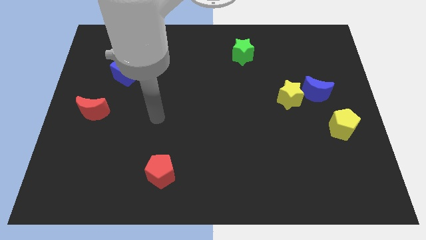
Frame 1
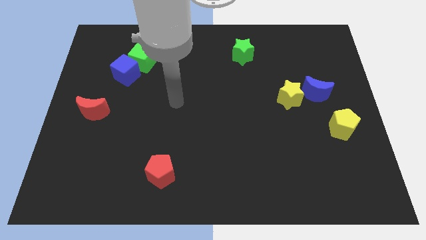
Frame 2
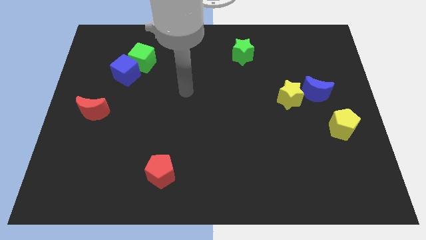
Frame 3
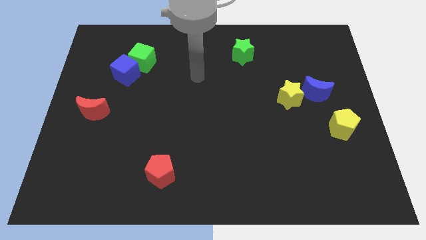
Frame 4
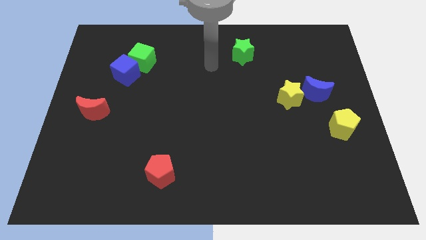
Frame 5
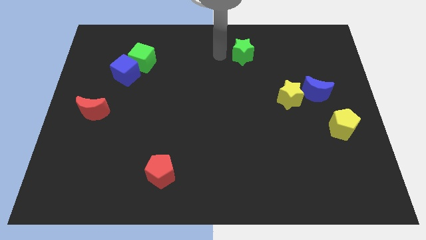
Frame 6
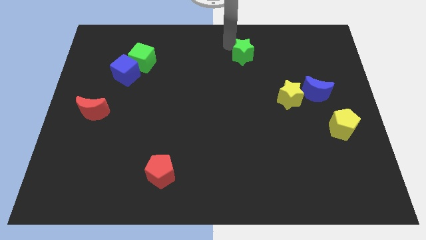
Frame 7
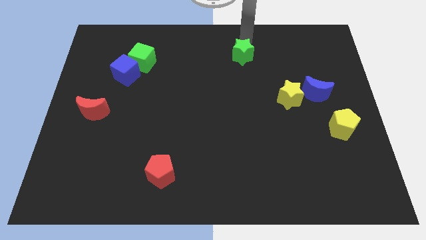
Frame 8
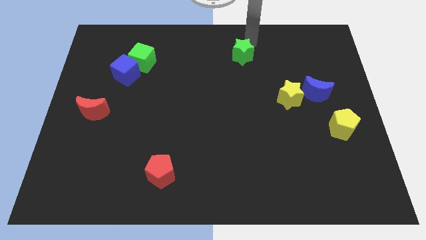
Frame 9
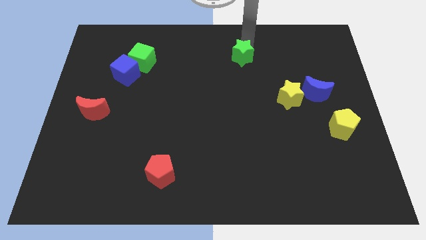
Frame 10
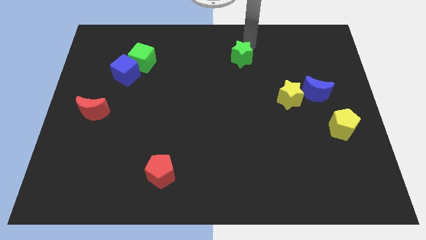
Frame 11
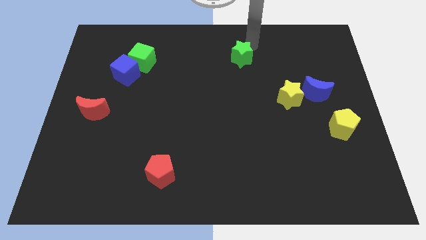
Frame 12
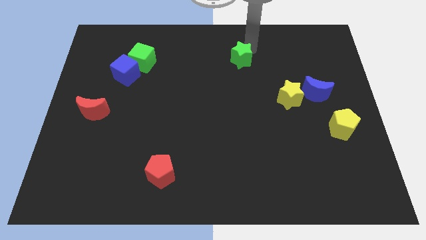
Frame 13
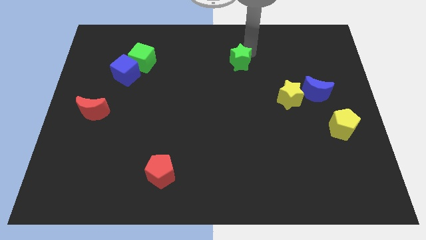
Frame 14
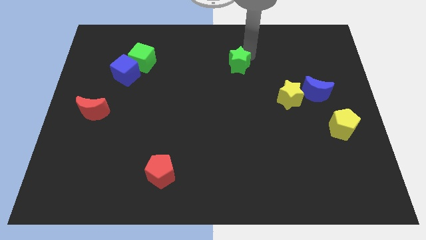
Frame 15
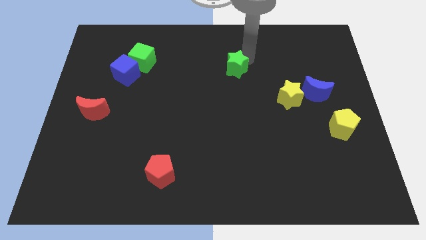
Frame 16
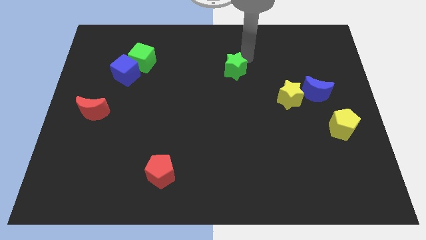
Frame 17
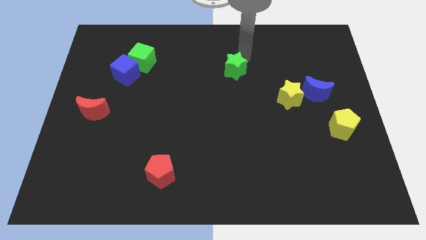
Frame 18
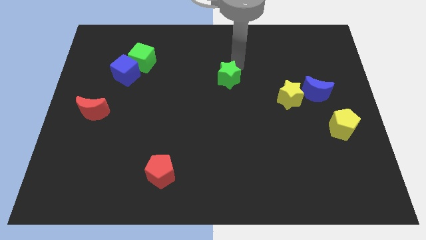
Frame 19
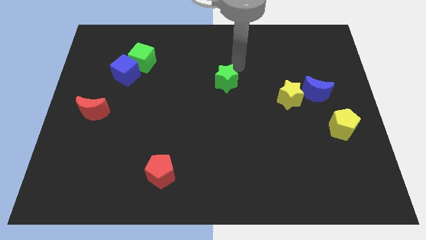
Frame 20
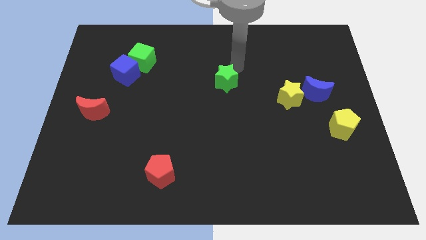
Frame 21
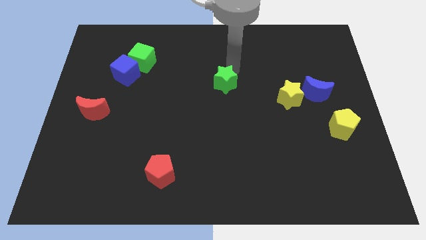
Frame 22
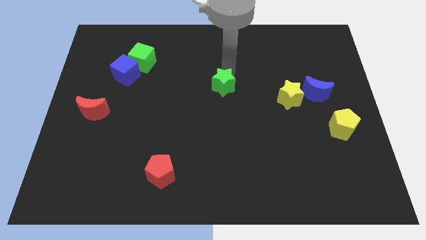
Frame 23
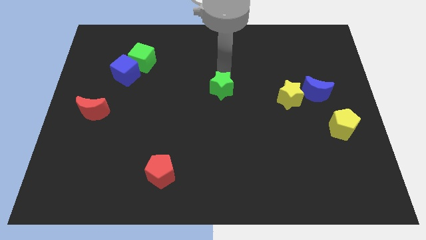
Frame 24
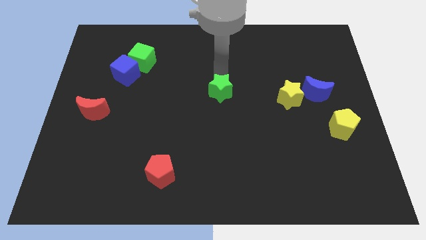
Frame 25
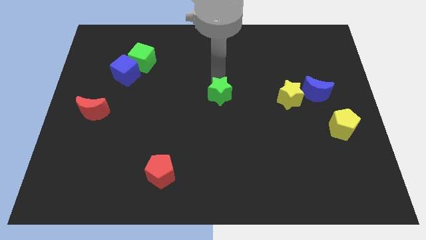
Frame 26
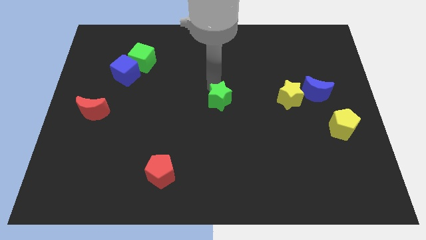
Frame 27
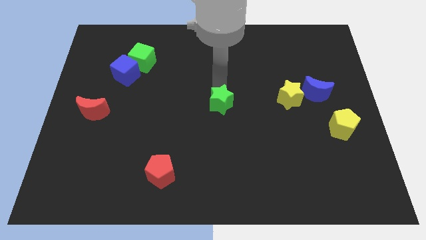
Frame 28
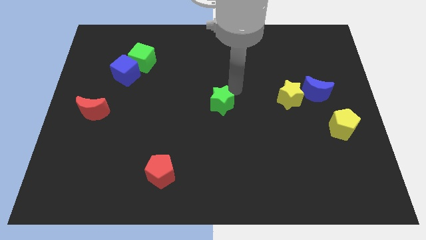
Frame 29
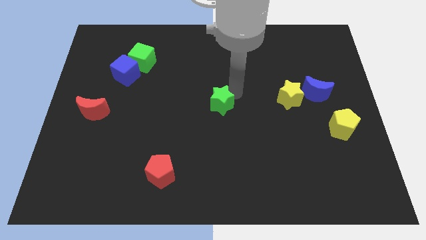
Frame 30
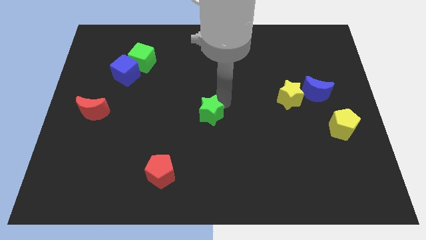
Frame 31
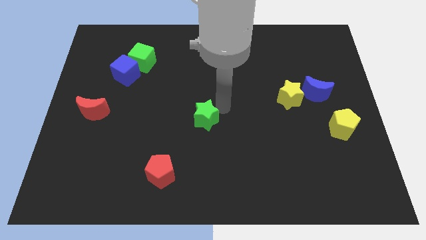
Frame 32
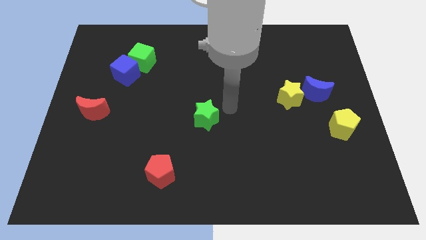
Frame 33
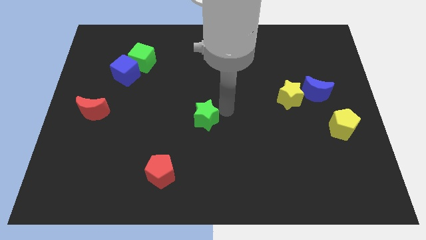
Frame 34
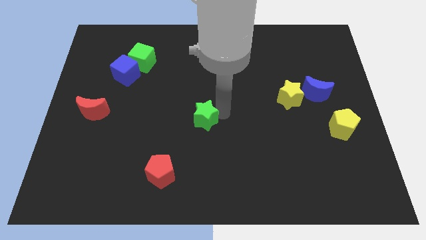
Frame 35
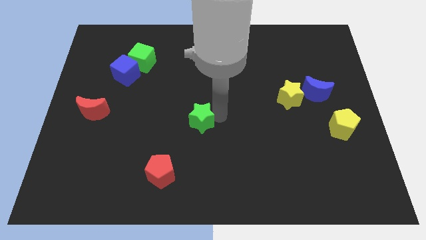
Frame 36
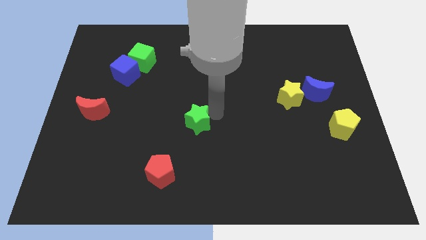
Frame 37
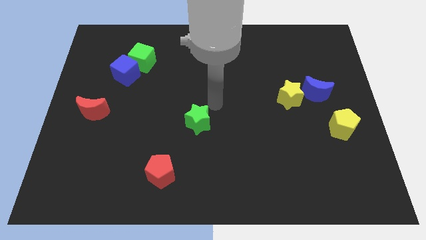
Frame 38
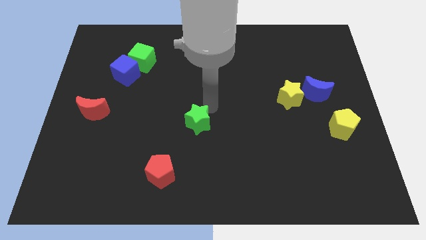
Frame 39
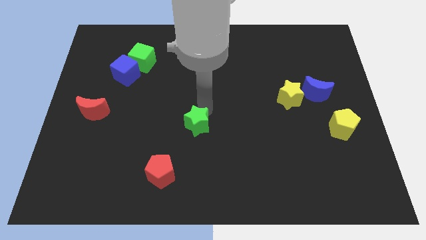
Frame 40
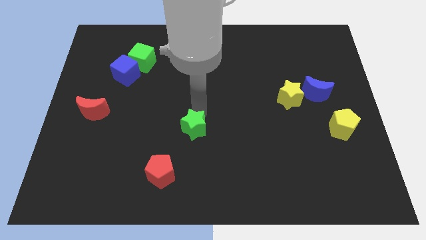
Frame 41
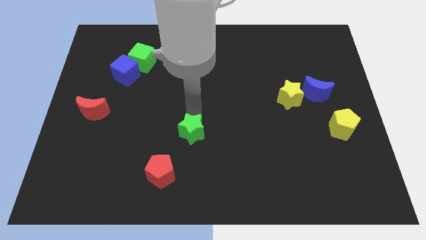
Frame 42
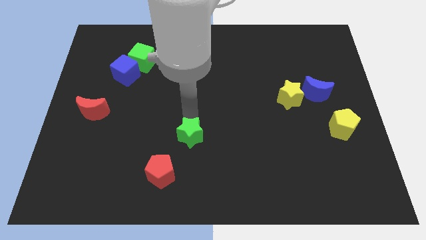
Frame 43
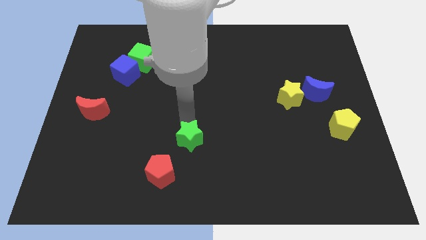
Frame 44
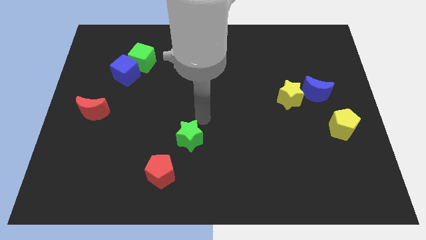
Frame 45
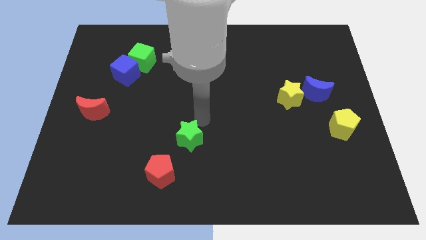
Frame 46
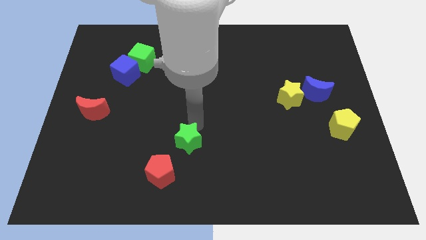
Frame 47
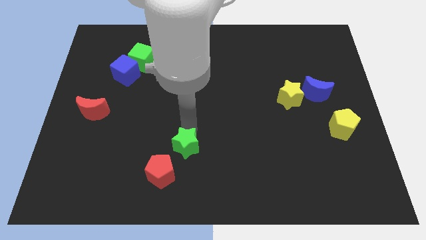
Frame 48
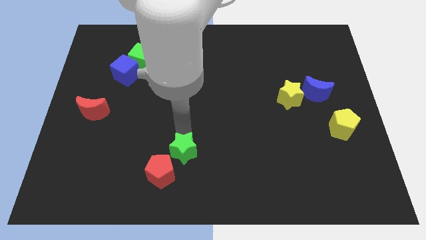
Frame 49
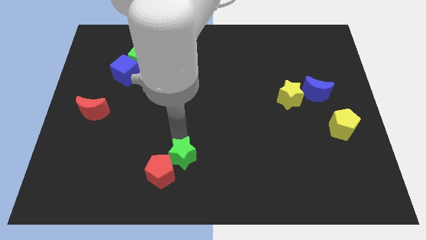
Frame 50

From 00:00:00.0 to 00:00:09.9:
put the green star towards the red pentagon
